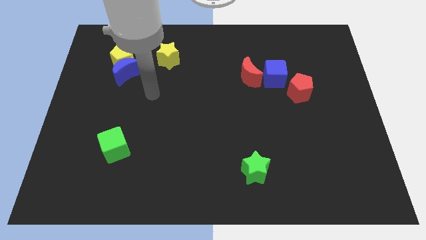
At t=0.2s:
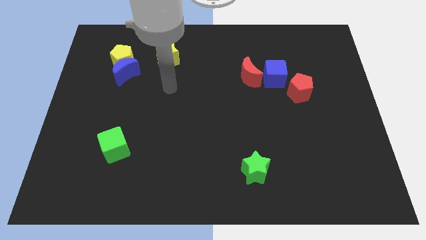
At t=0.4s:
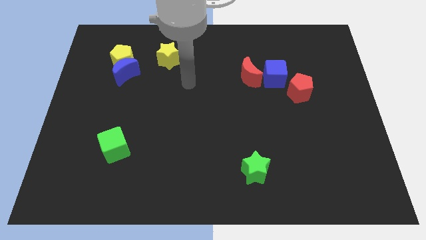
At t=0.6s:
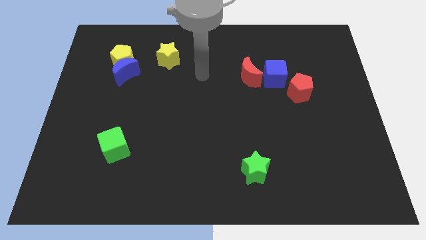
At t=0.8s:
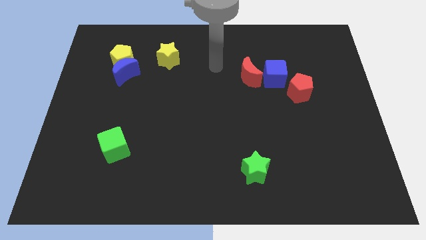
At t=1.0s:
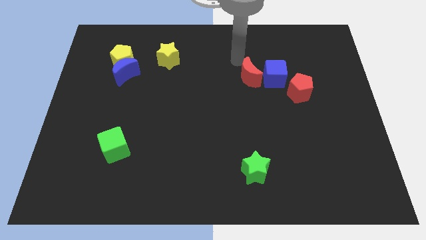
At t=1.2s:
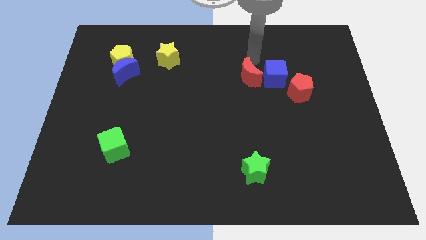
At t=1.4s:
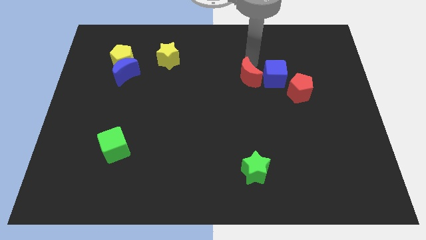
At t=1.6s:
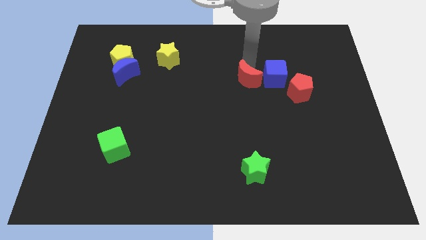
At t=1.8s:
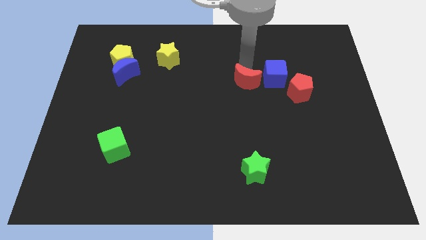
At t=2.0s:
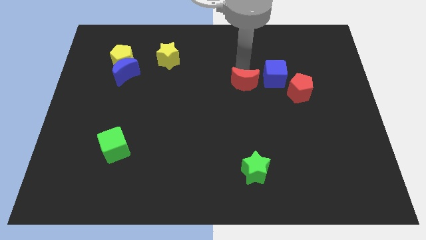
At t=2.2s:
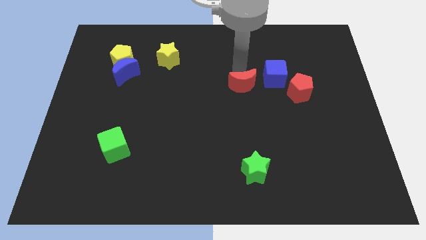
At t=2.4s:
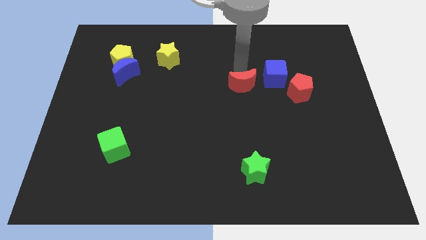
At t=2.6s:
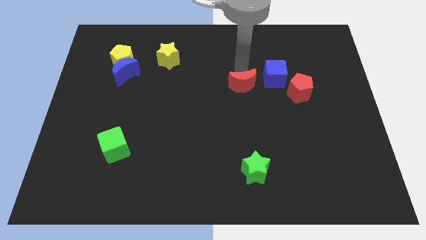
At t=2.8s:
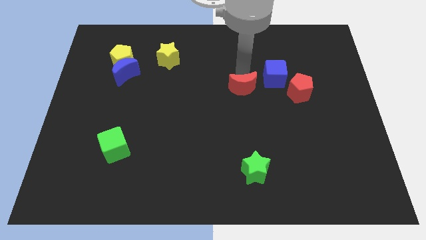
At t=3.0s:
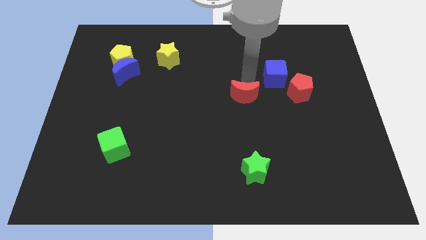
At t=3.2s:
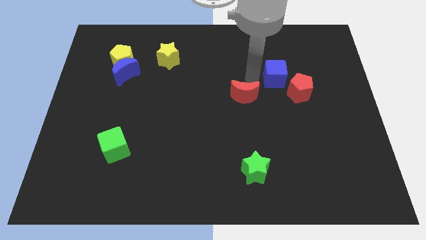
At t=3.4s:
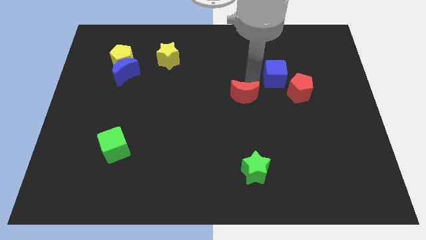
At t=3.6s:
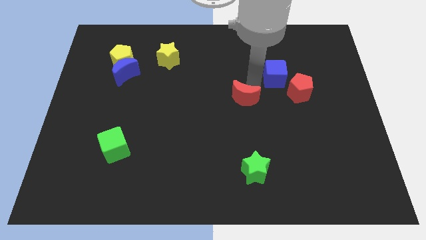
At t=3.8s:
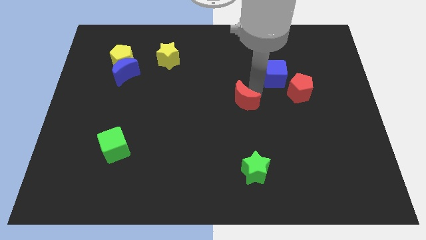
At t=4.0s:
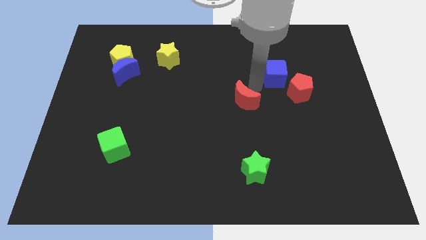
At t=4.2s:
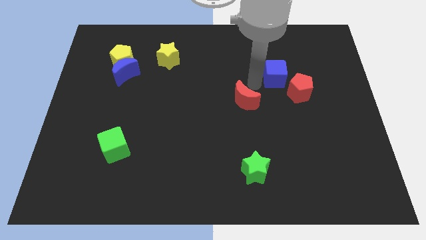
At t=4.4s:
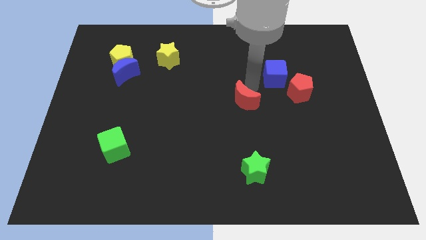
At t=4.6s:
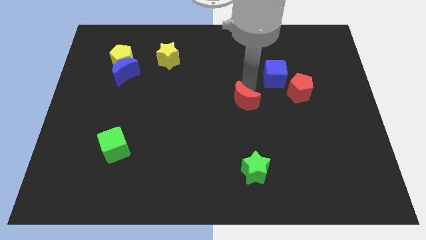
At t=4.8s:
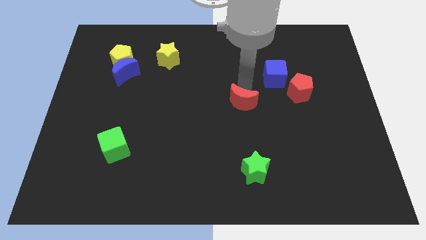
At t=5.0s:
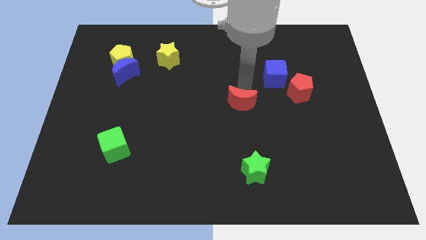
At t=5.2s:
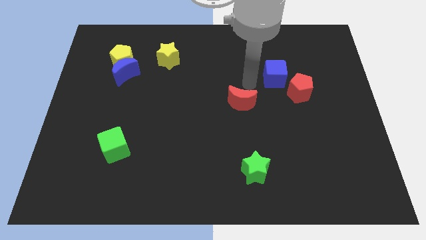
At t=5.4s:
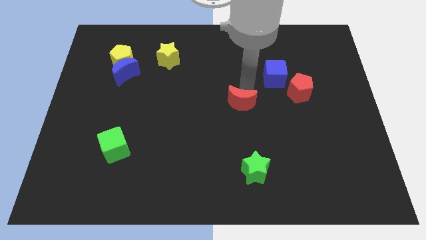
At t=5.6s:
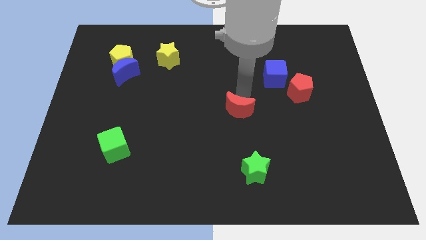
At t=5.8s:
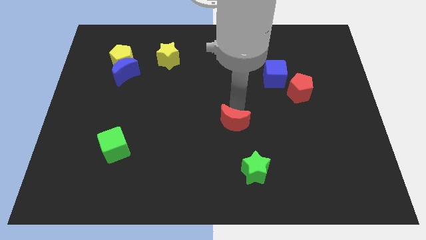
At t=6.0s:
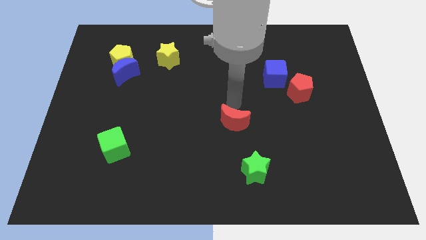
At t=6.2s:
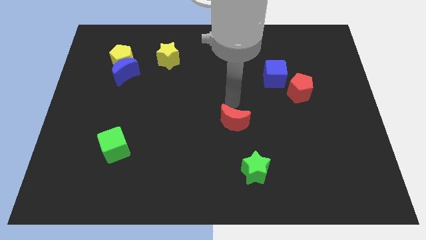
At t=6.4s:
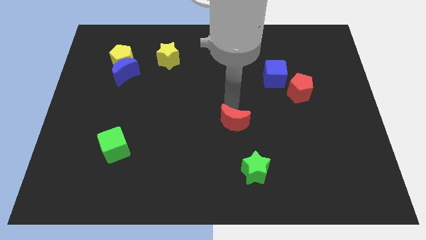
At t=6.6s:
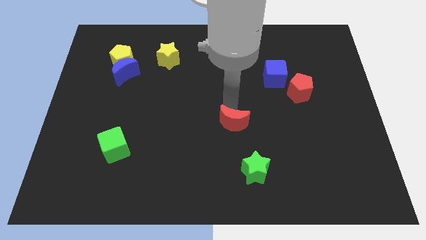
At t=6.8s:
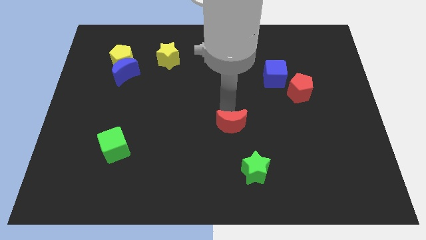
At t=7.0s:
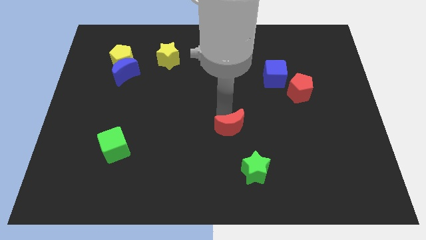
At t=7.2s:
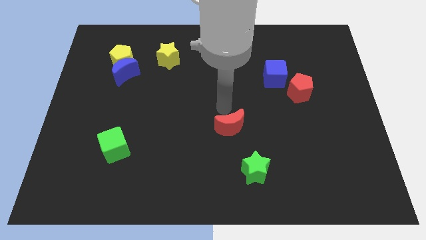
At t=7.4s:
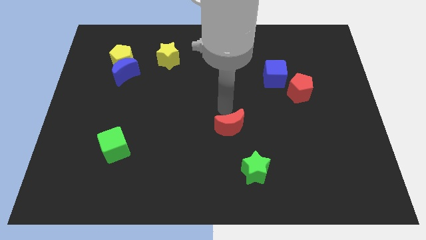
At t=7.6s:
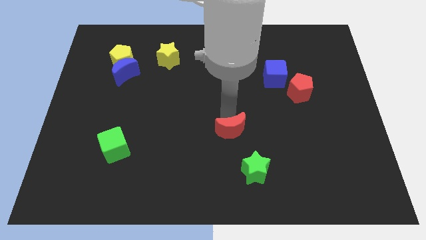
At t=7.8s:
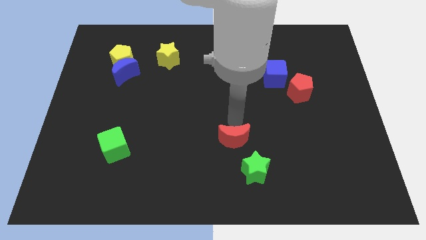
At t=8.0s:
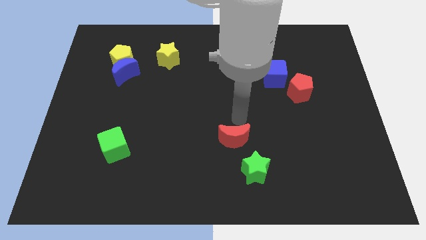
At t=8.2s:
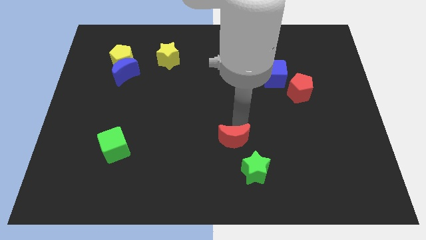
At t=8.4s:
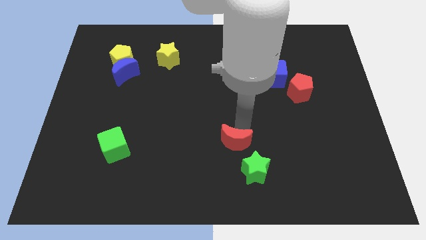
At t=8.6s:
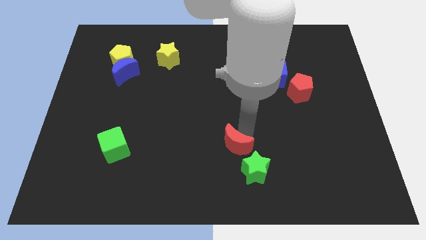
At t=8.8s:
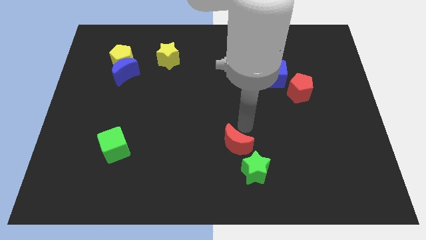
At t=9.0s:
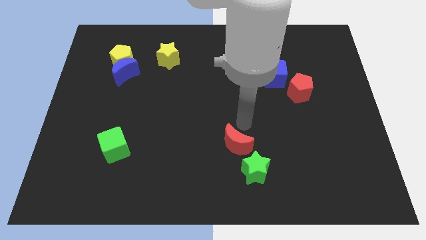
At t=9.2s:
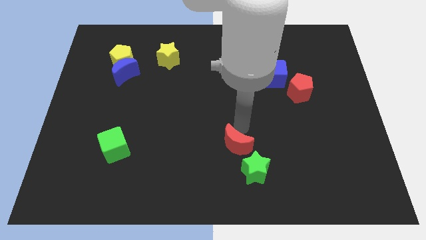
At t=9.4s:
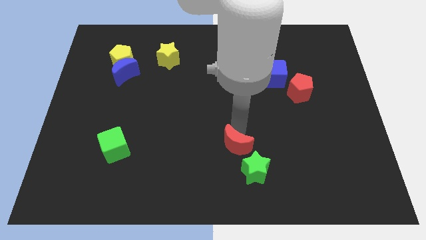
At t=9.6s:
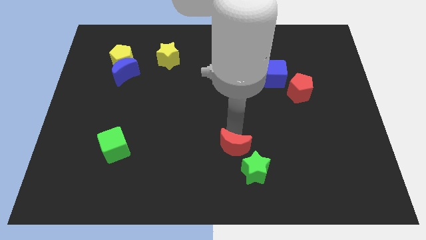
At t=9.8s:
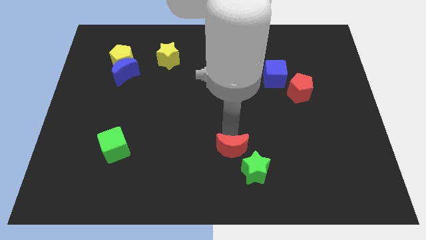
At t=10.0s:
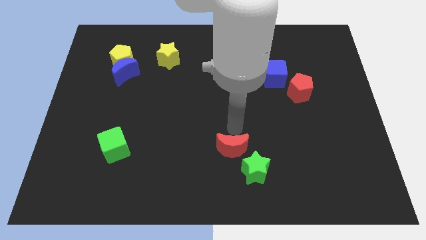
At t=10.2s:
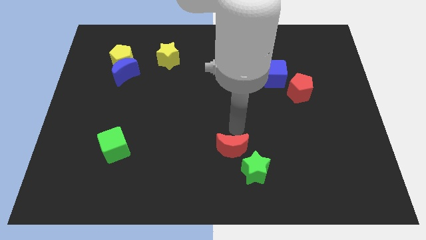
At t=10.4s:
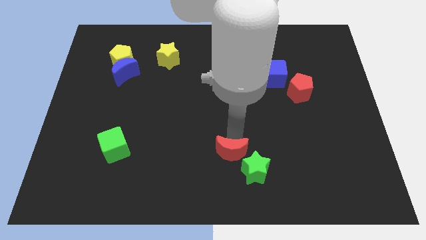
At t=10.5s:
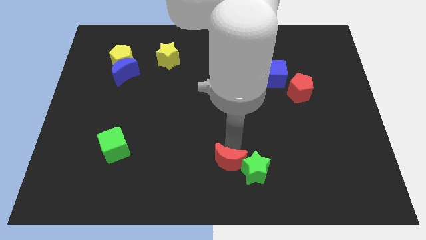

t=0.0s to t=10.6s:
move the red moon to the bottom side

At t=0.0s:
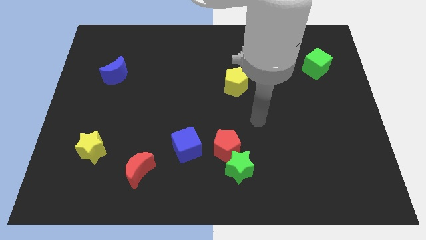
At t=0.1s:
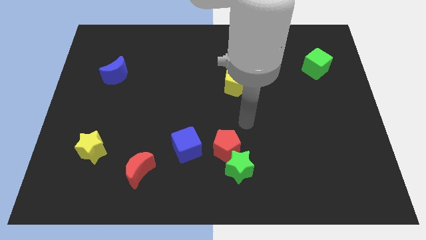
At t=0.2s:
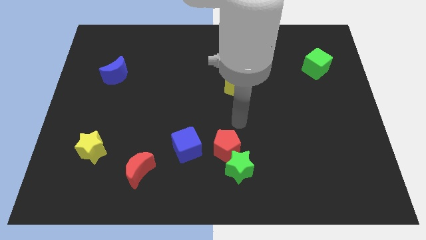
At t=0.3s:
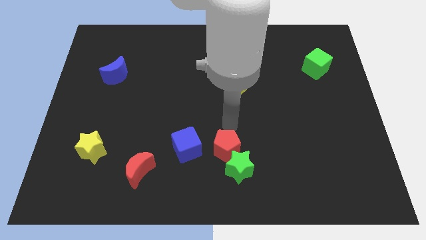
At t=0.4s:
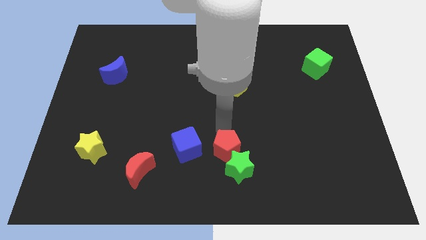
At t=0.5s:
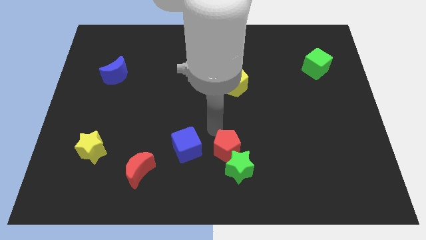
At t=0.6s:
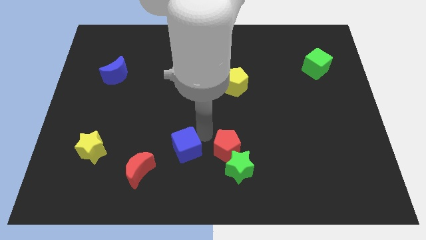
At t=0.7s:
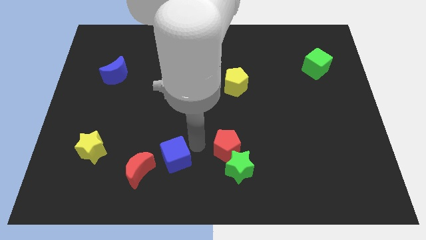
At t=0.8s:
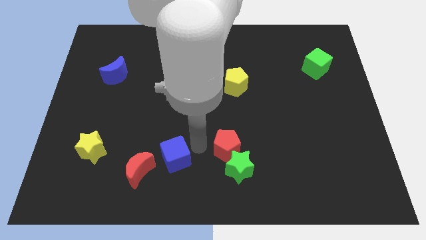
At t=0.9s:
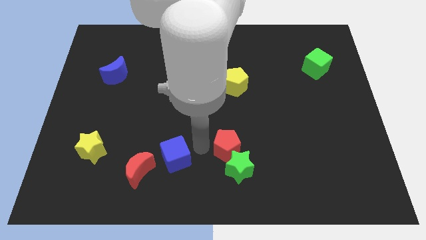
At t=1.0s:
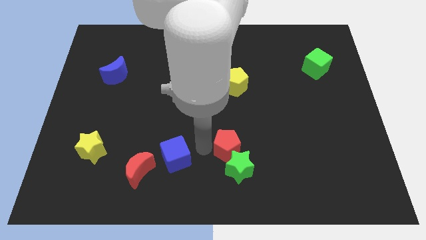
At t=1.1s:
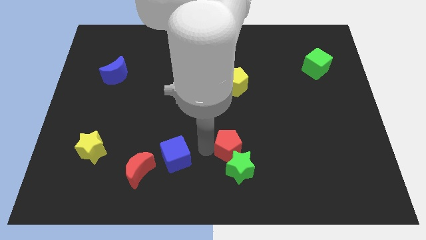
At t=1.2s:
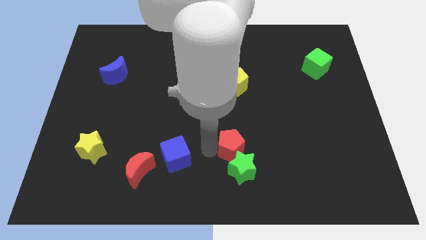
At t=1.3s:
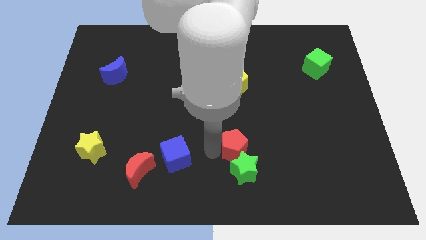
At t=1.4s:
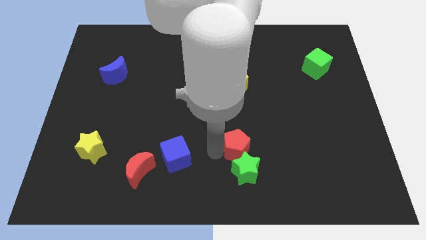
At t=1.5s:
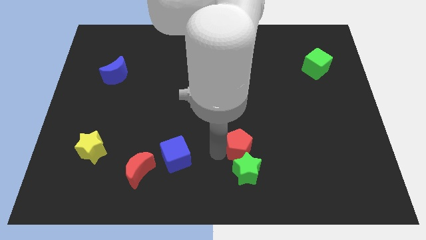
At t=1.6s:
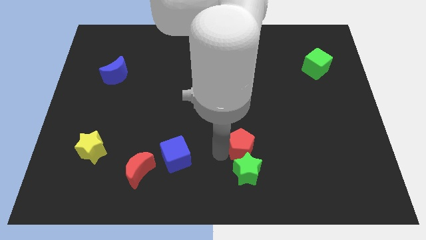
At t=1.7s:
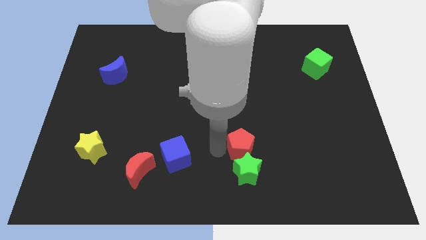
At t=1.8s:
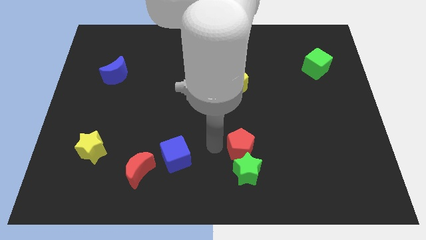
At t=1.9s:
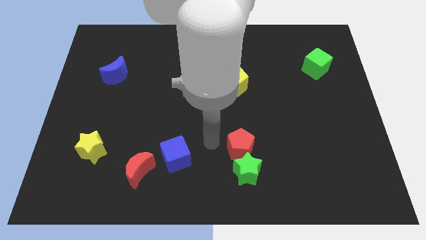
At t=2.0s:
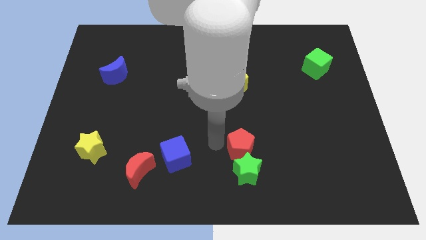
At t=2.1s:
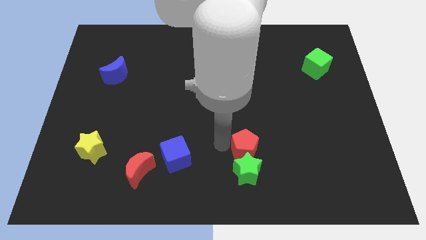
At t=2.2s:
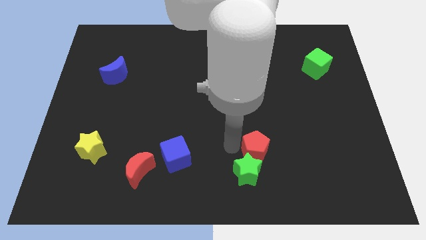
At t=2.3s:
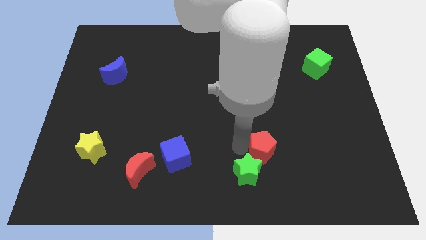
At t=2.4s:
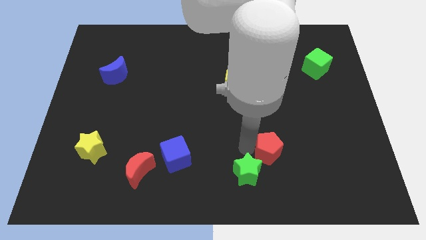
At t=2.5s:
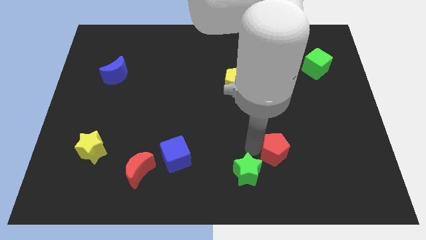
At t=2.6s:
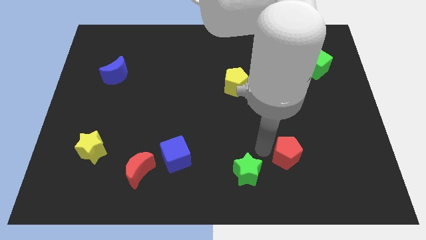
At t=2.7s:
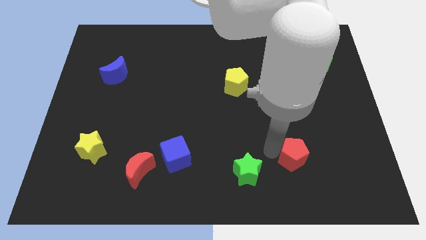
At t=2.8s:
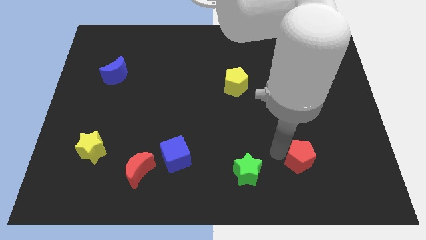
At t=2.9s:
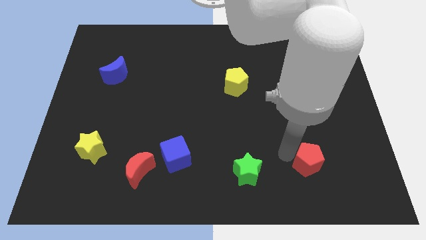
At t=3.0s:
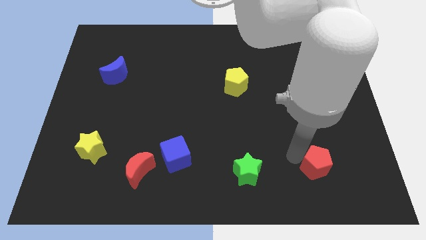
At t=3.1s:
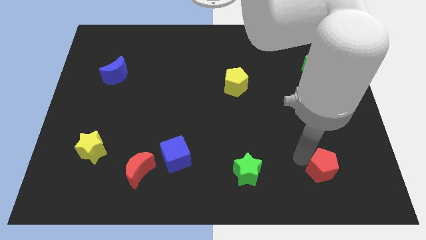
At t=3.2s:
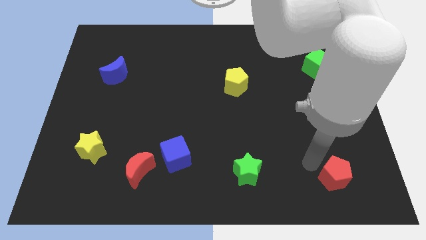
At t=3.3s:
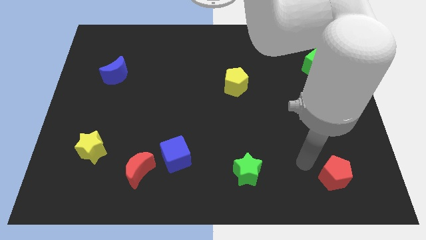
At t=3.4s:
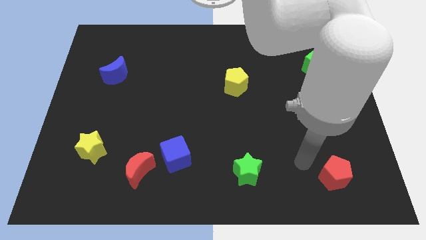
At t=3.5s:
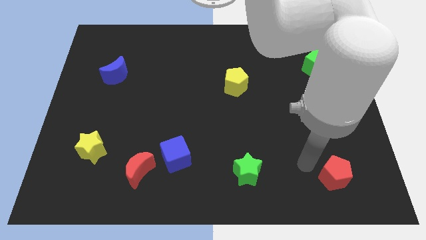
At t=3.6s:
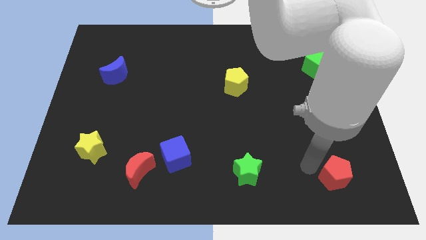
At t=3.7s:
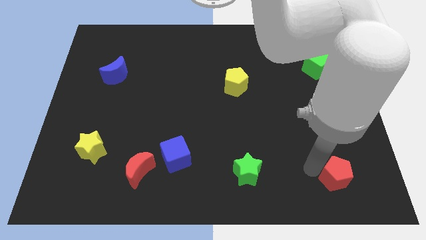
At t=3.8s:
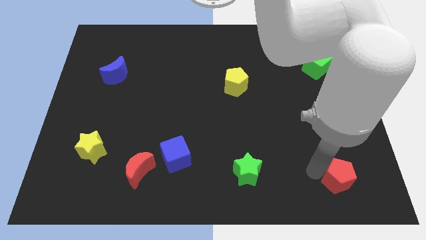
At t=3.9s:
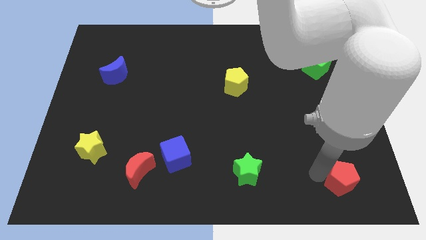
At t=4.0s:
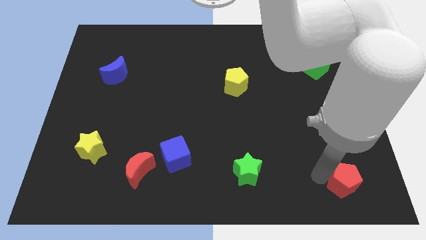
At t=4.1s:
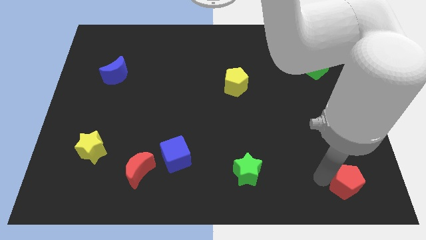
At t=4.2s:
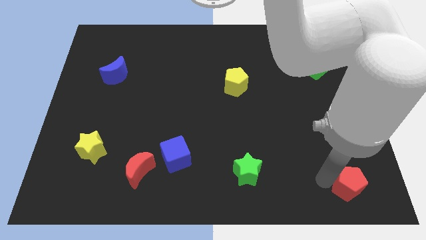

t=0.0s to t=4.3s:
push the red pentagon to the bottom right of the board
